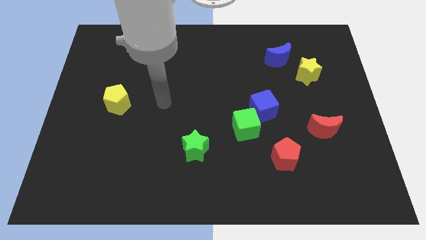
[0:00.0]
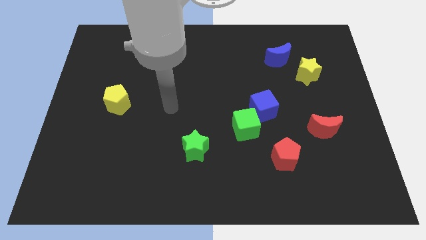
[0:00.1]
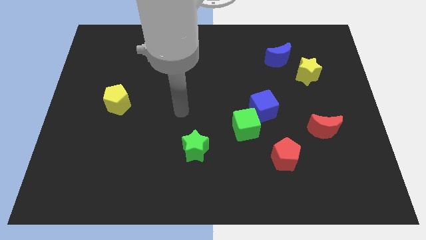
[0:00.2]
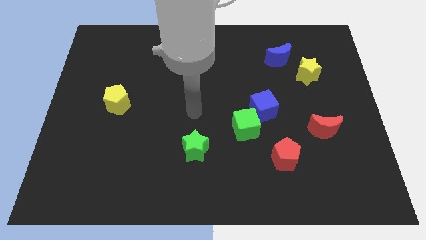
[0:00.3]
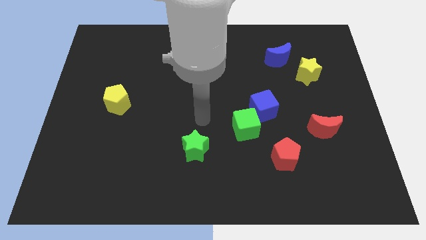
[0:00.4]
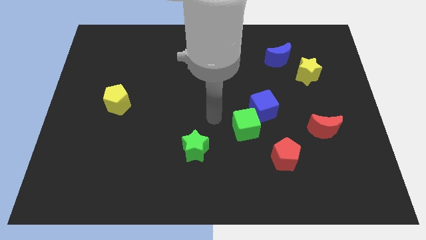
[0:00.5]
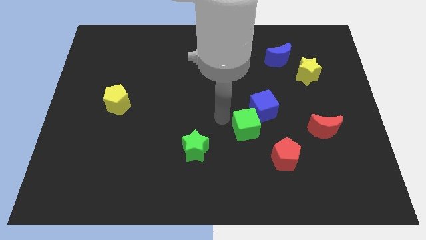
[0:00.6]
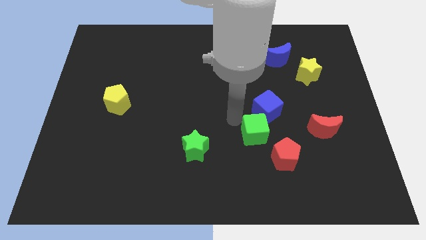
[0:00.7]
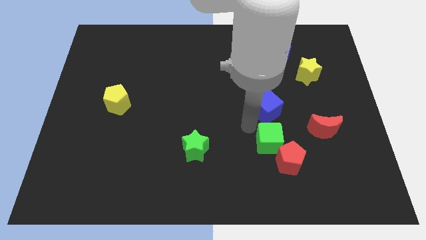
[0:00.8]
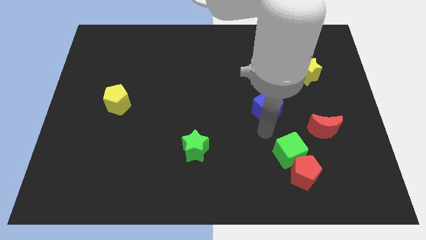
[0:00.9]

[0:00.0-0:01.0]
pull the blue cube apart from the green cube

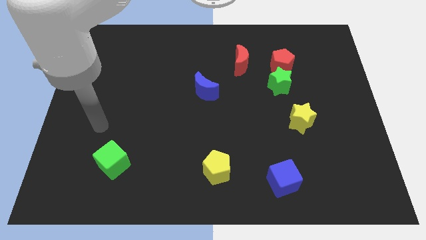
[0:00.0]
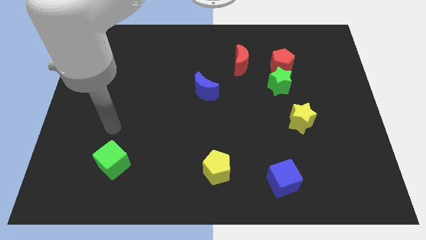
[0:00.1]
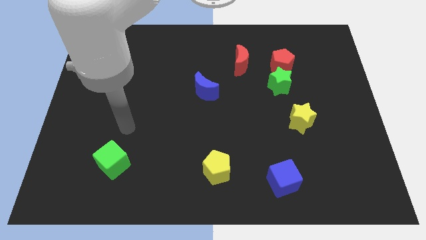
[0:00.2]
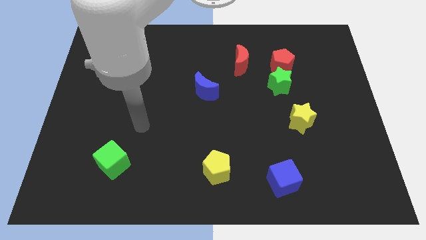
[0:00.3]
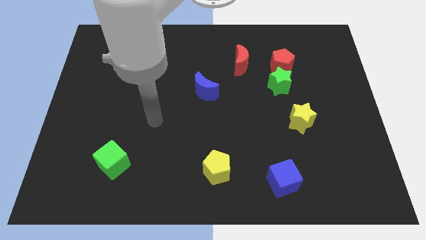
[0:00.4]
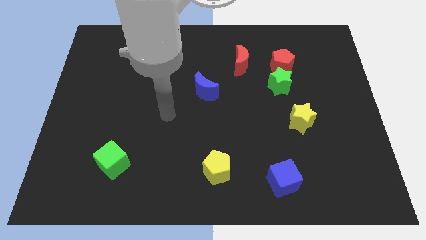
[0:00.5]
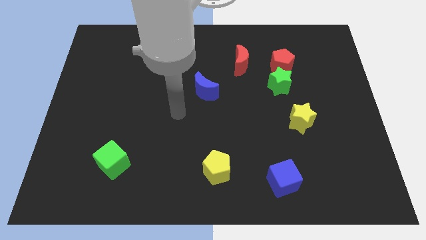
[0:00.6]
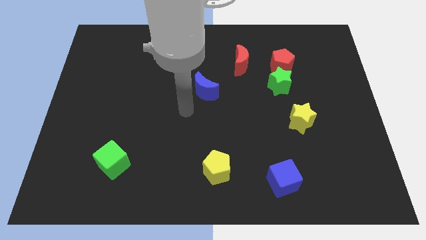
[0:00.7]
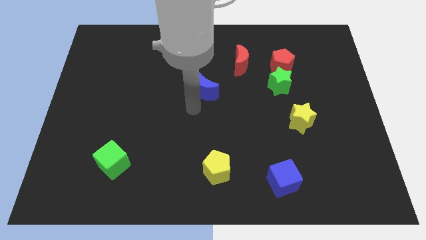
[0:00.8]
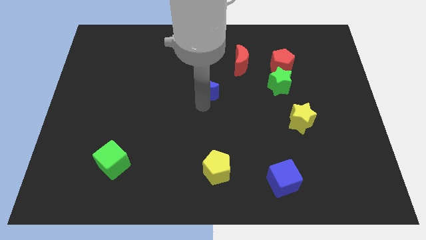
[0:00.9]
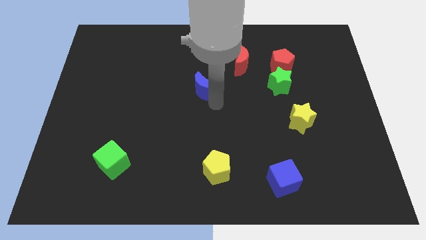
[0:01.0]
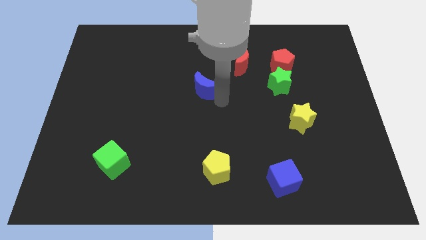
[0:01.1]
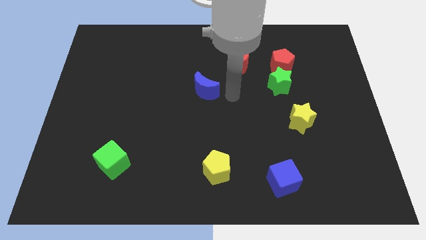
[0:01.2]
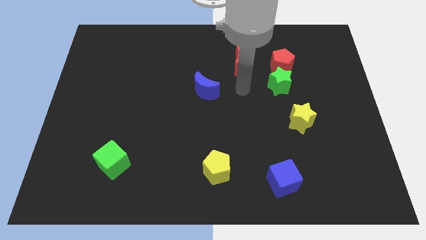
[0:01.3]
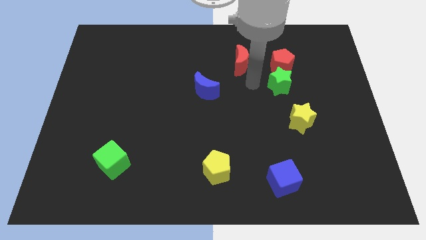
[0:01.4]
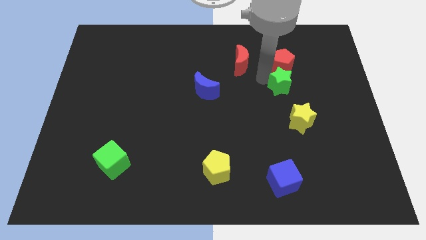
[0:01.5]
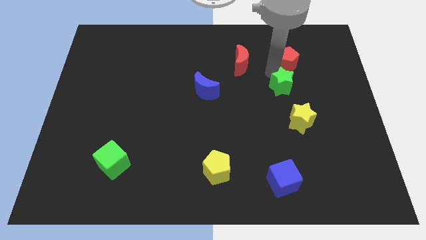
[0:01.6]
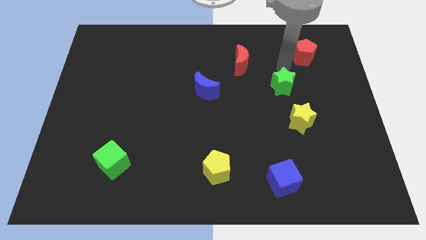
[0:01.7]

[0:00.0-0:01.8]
pull the green star apart from the red pentagon

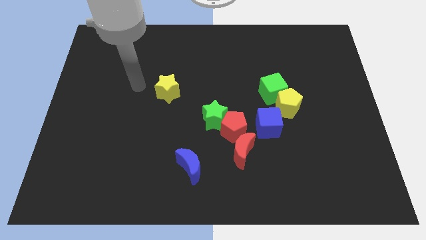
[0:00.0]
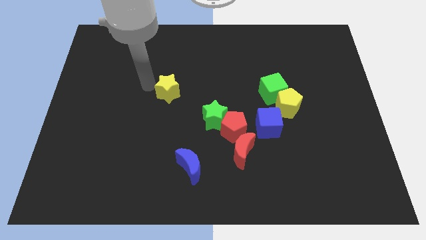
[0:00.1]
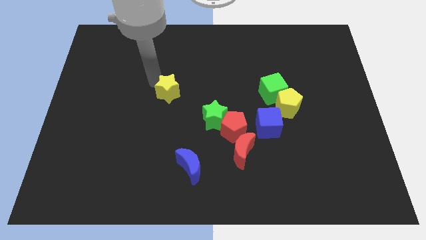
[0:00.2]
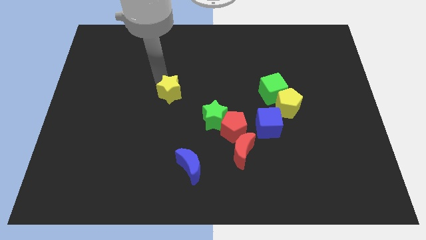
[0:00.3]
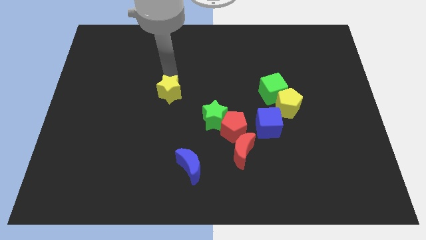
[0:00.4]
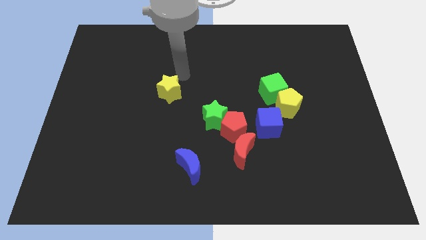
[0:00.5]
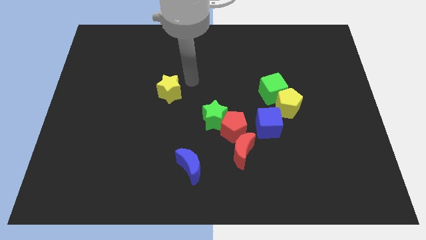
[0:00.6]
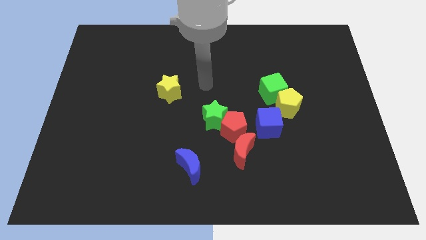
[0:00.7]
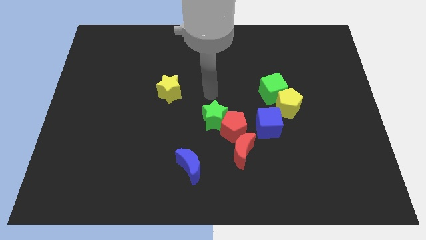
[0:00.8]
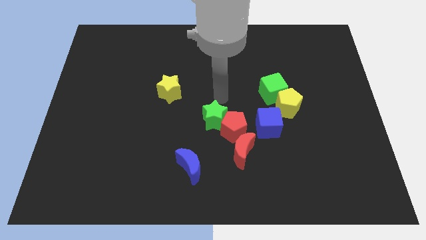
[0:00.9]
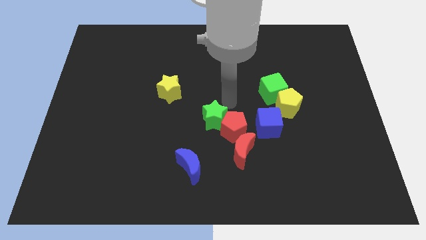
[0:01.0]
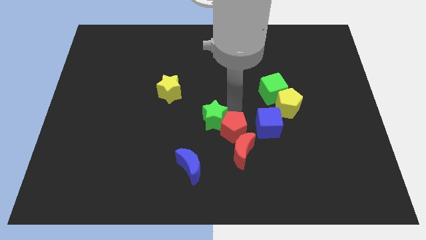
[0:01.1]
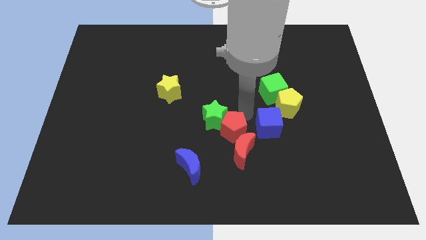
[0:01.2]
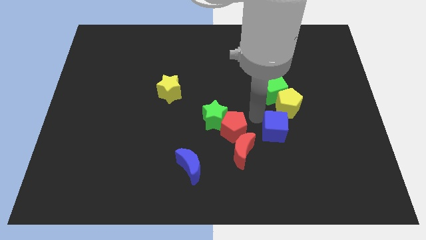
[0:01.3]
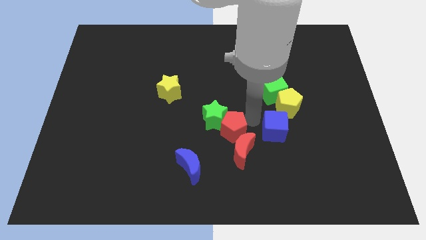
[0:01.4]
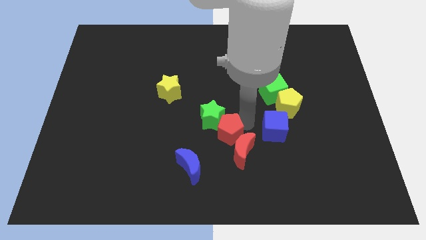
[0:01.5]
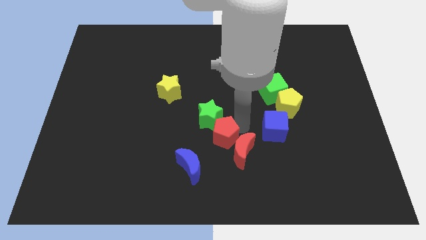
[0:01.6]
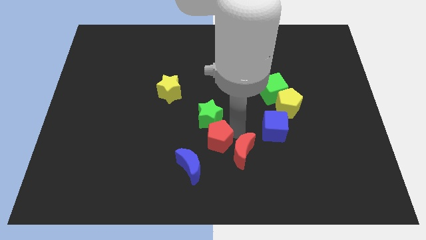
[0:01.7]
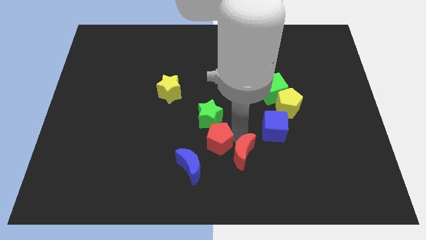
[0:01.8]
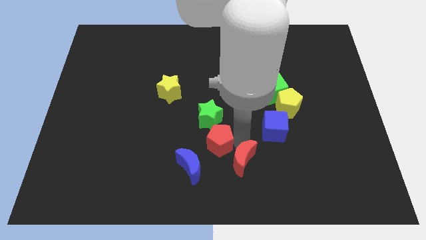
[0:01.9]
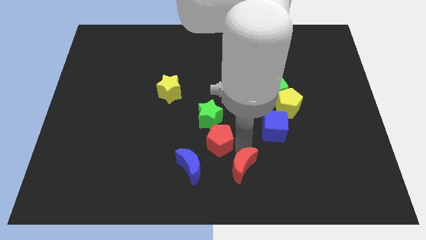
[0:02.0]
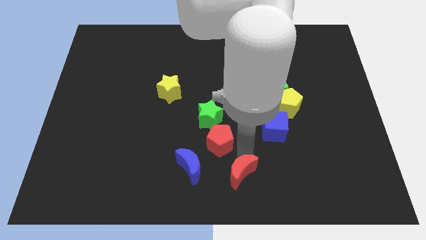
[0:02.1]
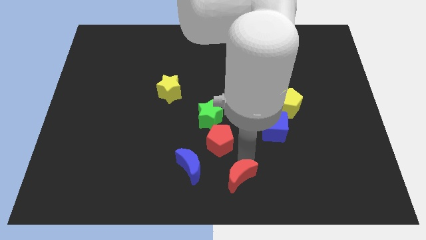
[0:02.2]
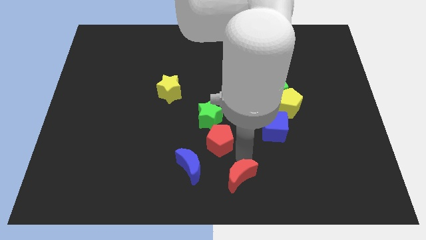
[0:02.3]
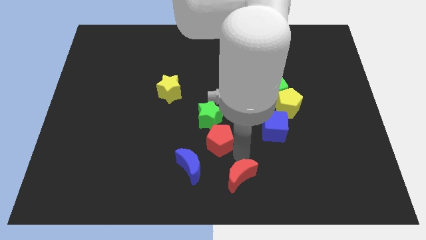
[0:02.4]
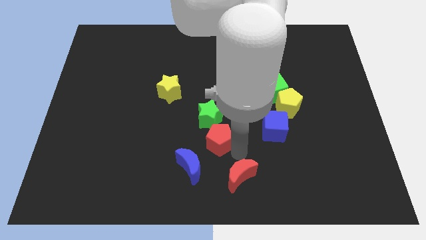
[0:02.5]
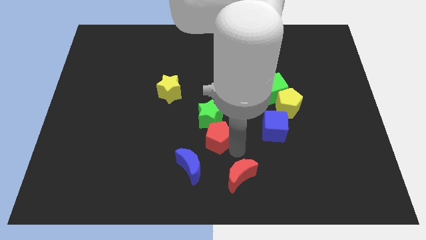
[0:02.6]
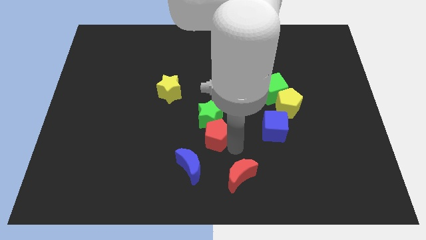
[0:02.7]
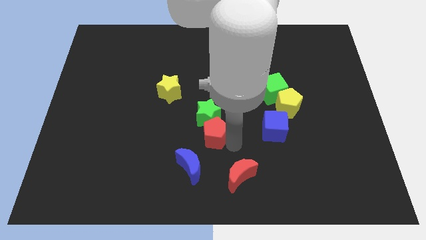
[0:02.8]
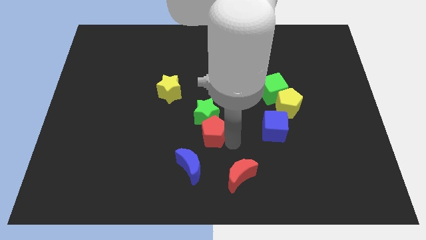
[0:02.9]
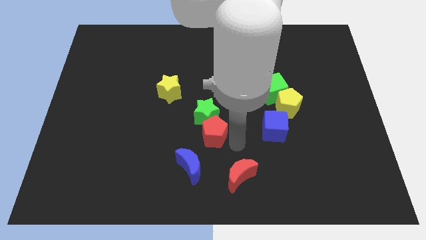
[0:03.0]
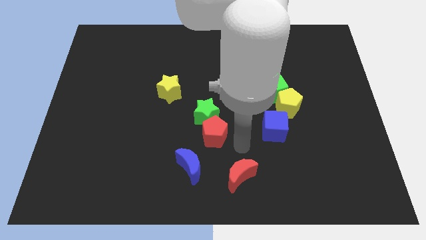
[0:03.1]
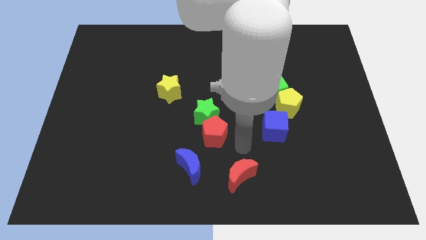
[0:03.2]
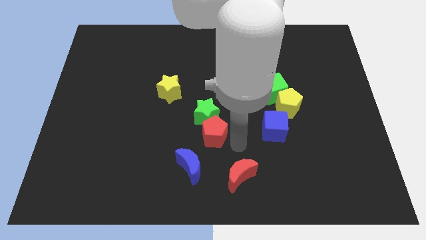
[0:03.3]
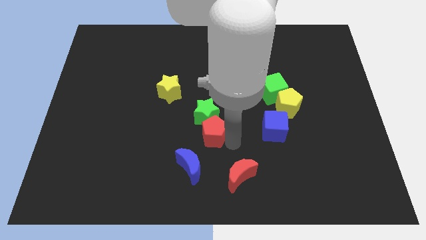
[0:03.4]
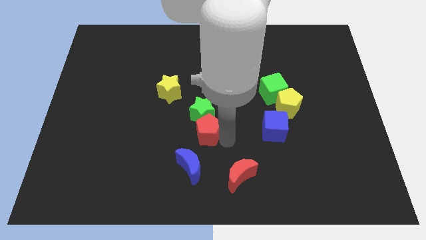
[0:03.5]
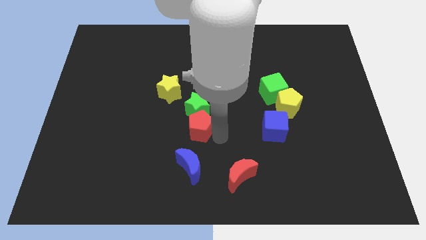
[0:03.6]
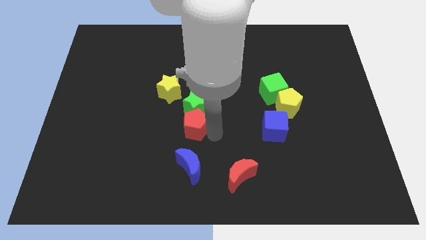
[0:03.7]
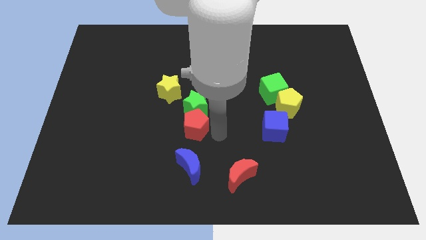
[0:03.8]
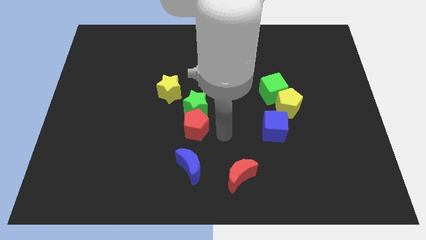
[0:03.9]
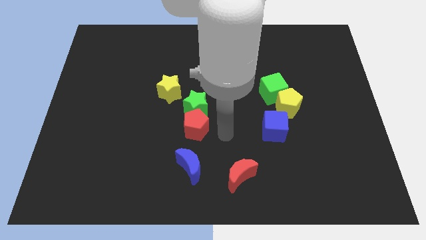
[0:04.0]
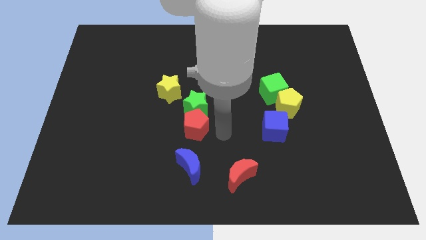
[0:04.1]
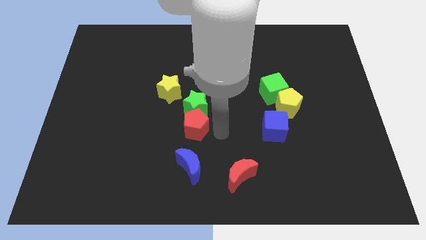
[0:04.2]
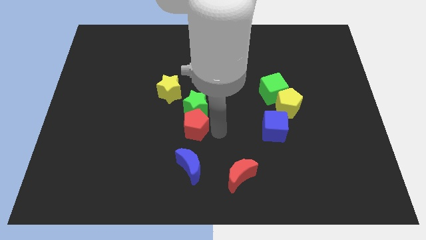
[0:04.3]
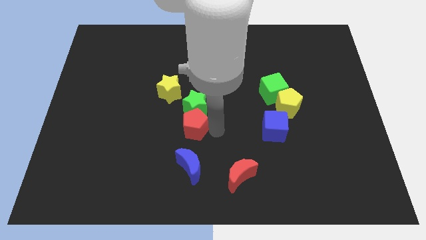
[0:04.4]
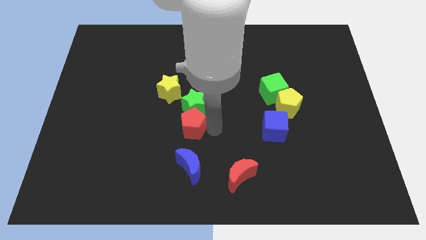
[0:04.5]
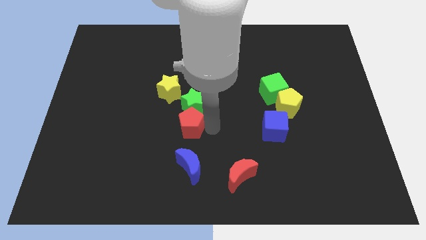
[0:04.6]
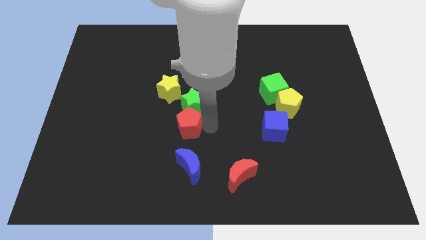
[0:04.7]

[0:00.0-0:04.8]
separate the red pentagon from the green star, red moon, and blue cube

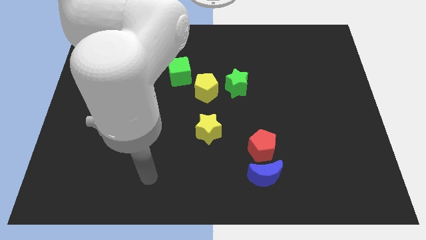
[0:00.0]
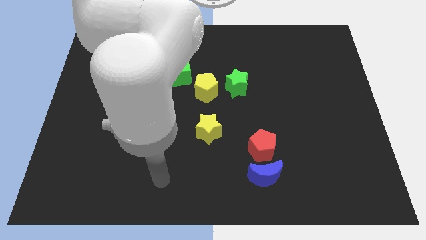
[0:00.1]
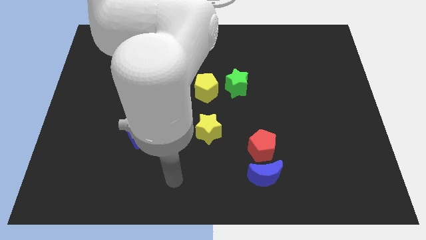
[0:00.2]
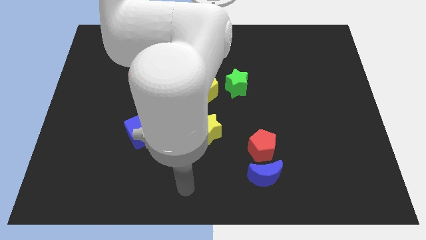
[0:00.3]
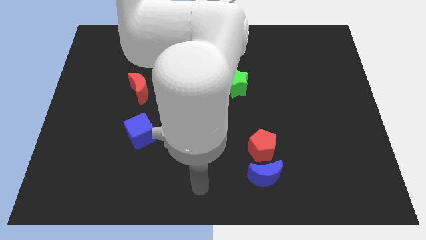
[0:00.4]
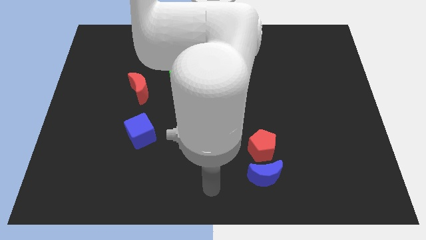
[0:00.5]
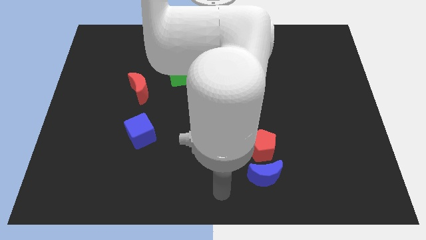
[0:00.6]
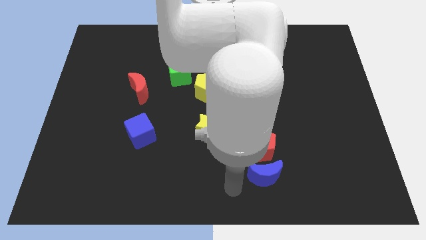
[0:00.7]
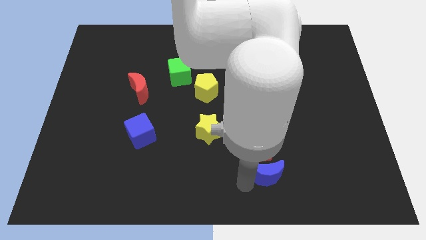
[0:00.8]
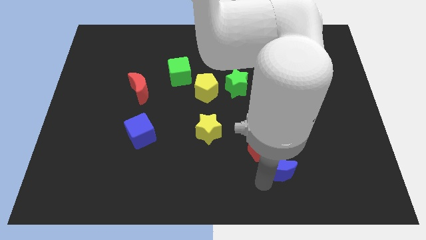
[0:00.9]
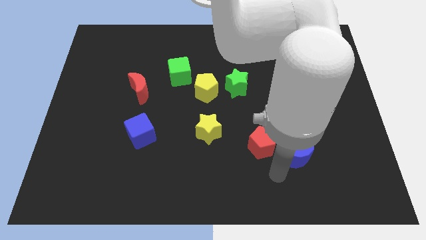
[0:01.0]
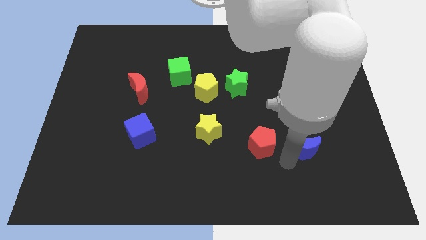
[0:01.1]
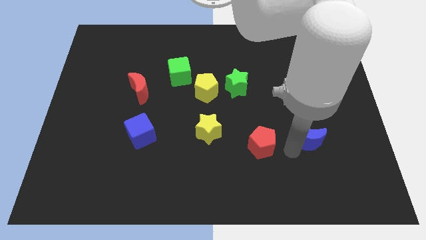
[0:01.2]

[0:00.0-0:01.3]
pull the red pentagon apart from the blue moon

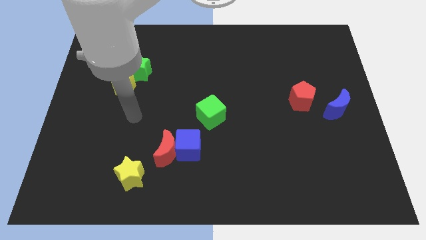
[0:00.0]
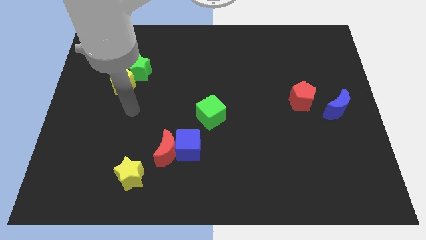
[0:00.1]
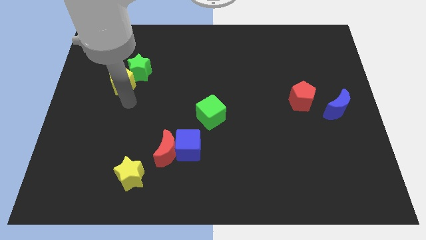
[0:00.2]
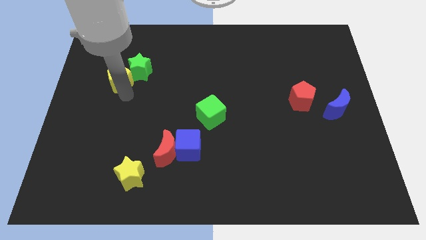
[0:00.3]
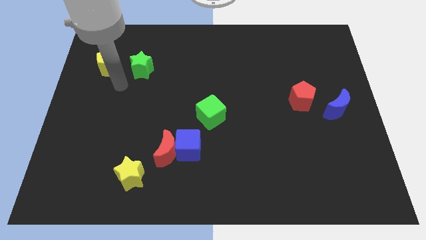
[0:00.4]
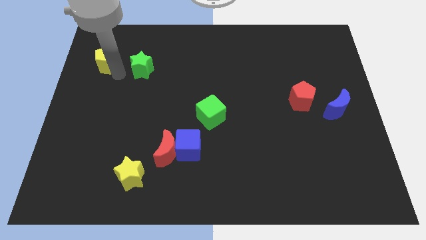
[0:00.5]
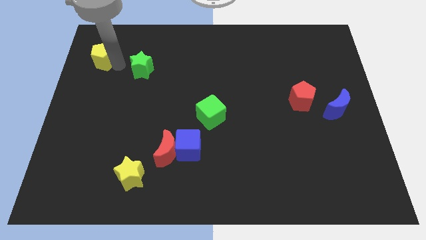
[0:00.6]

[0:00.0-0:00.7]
separate the green star from the yellow pentagon
